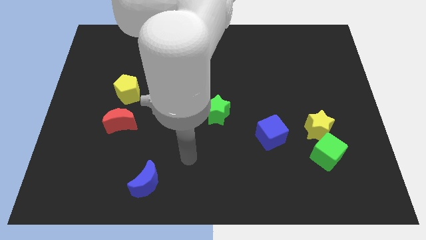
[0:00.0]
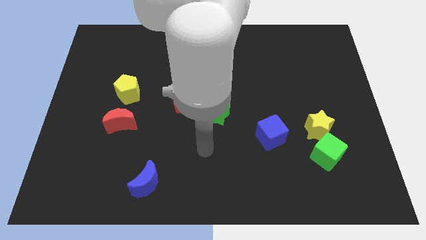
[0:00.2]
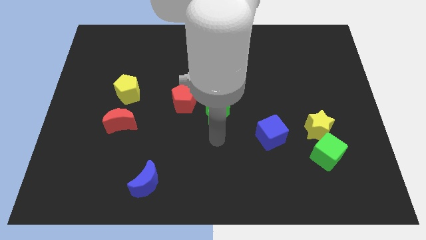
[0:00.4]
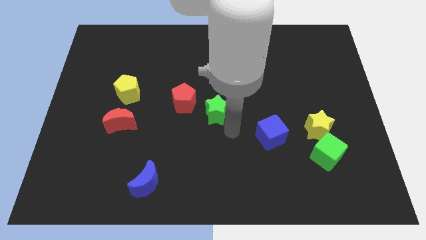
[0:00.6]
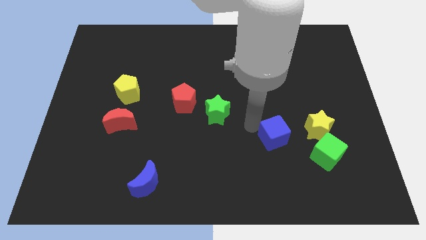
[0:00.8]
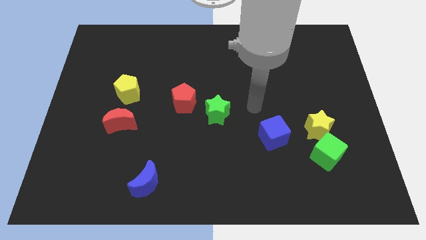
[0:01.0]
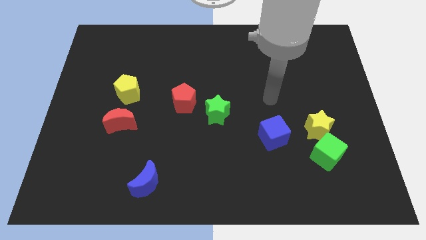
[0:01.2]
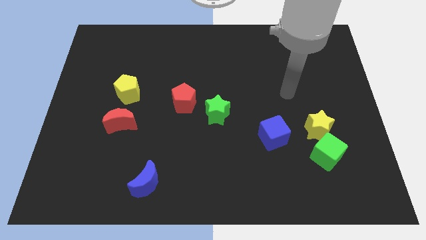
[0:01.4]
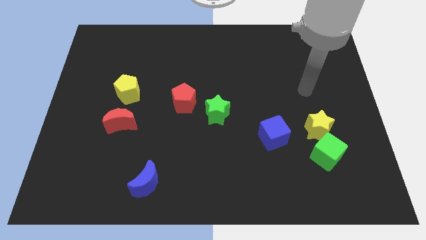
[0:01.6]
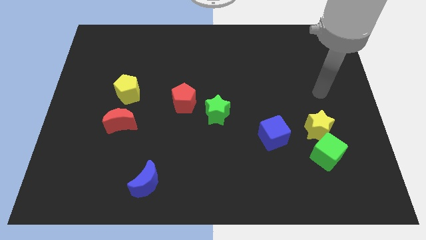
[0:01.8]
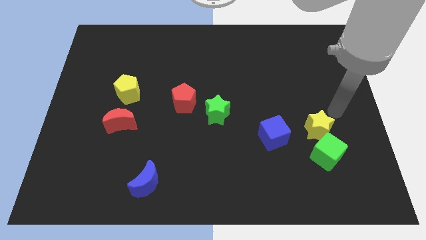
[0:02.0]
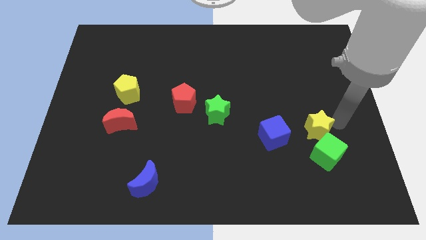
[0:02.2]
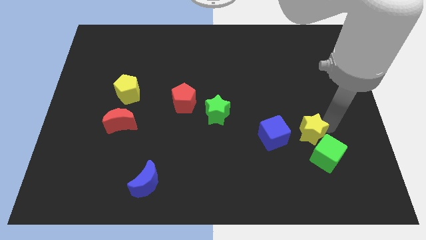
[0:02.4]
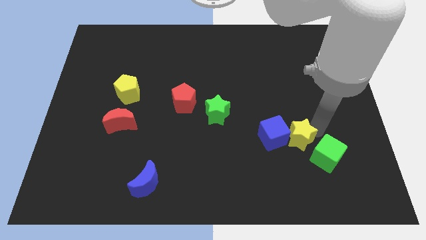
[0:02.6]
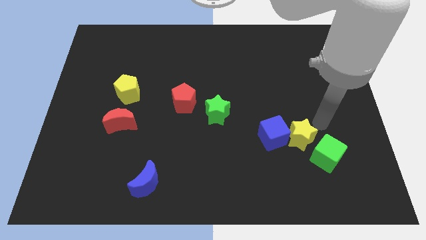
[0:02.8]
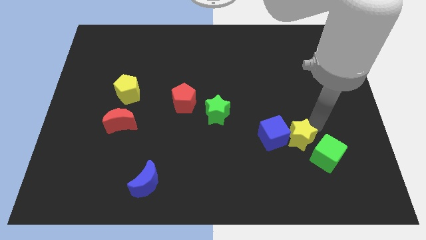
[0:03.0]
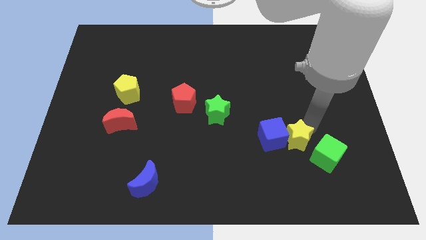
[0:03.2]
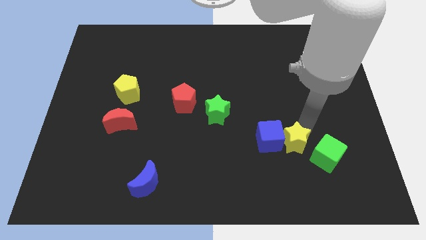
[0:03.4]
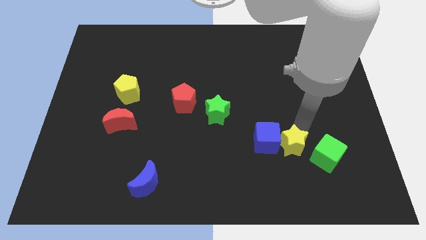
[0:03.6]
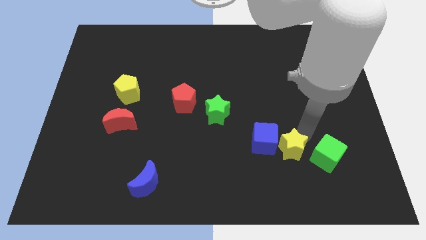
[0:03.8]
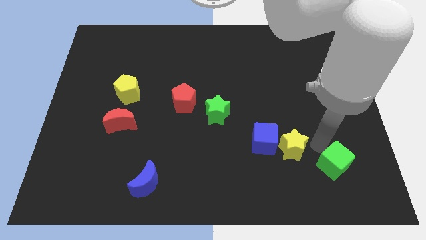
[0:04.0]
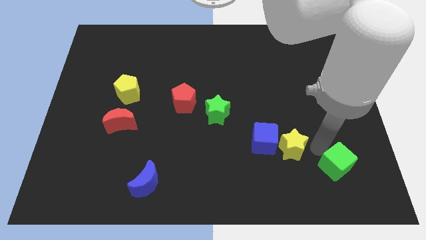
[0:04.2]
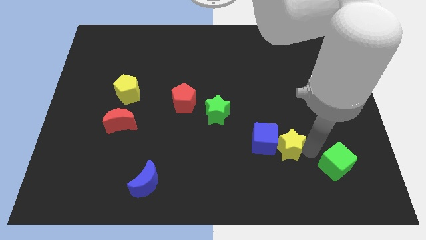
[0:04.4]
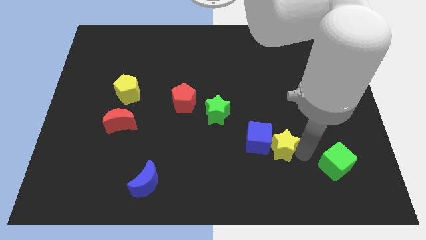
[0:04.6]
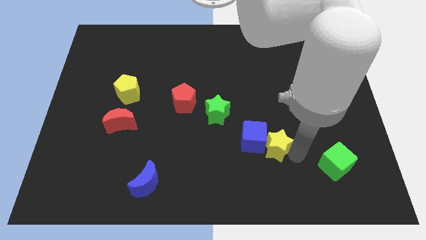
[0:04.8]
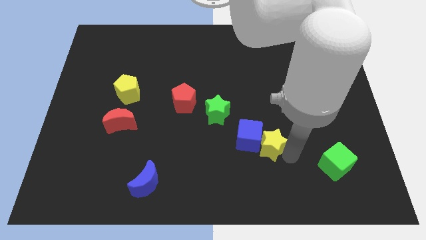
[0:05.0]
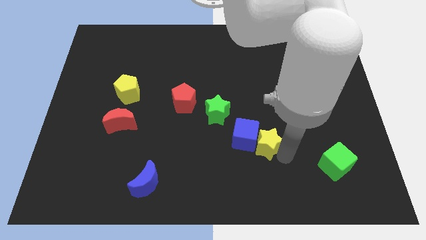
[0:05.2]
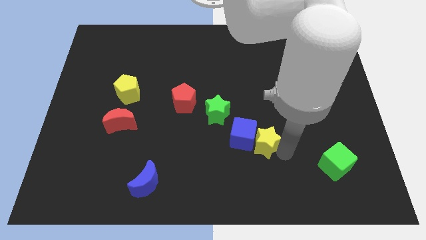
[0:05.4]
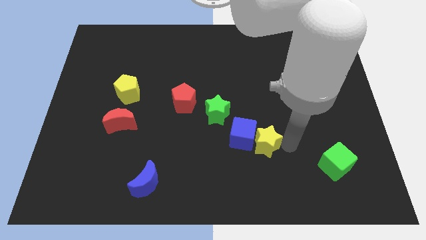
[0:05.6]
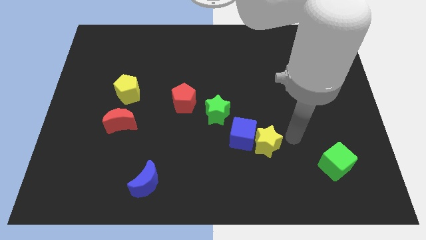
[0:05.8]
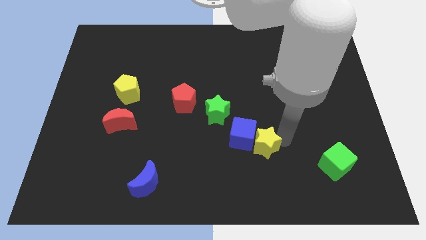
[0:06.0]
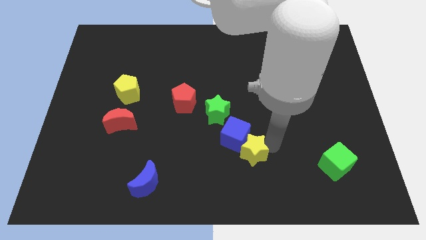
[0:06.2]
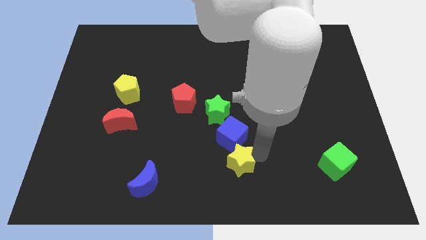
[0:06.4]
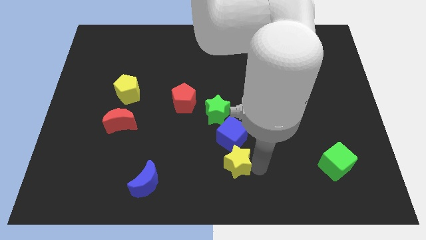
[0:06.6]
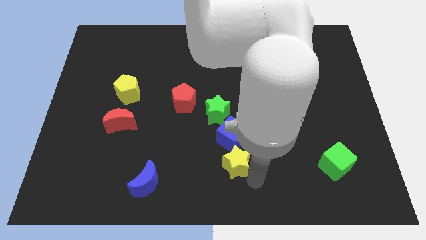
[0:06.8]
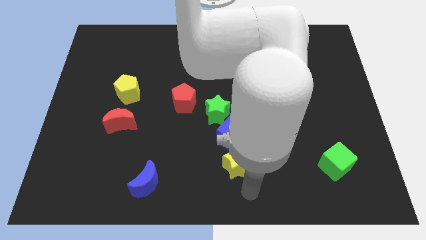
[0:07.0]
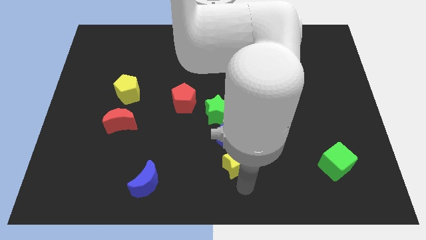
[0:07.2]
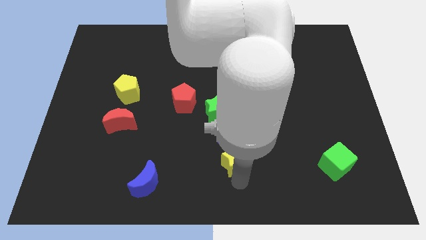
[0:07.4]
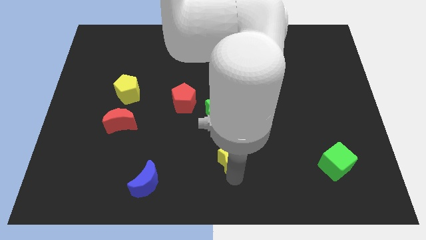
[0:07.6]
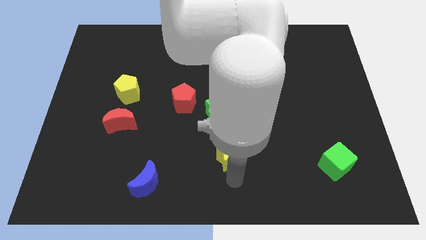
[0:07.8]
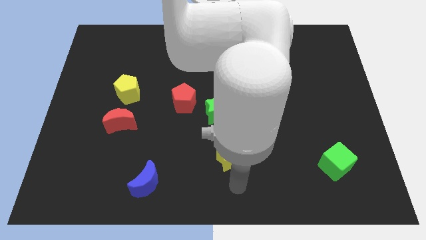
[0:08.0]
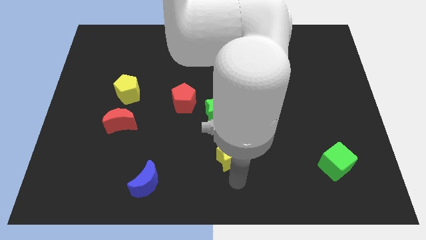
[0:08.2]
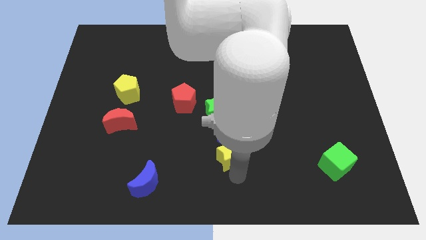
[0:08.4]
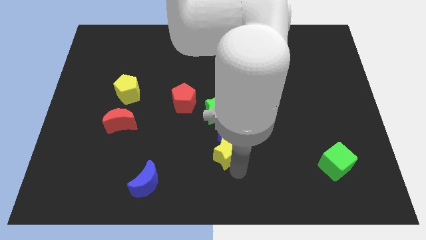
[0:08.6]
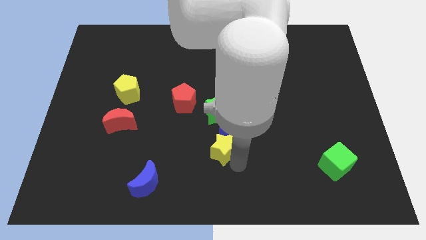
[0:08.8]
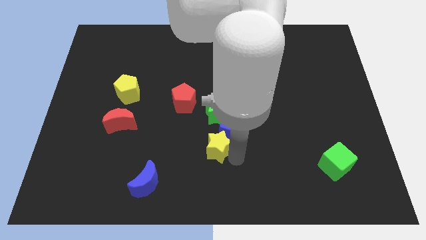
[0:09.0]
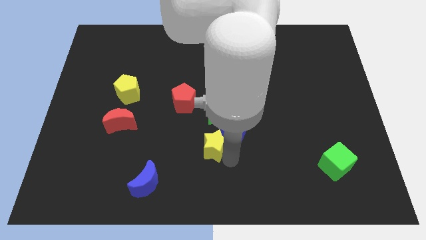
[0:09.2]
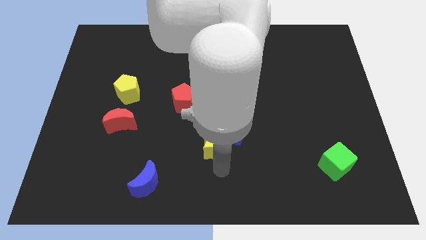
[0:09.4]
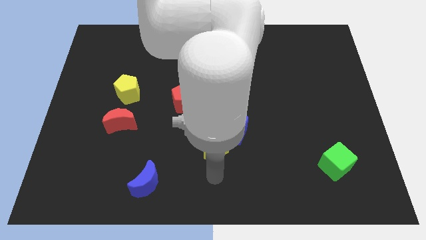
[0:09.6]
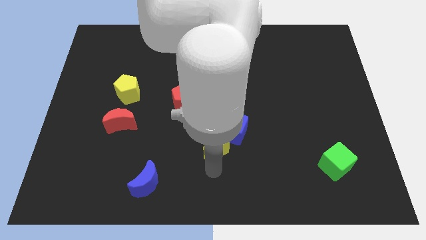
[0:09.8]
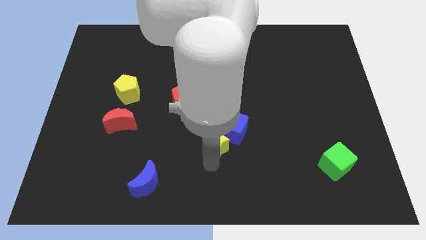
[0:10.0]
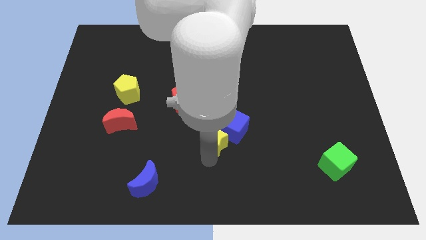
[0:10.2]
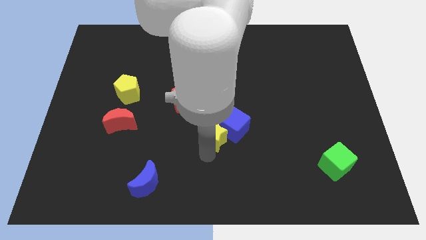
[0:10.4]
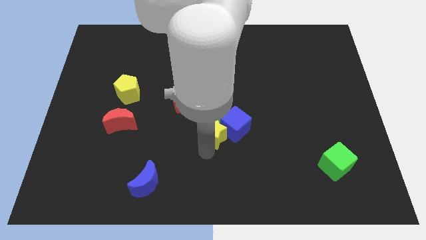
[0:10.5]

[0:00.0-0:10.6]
put the yellow star to the bottom right side of the red pentagon

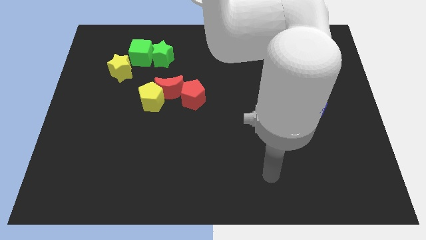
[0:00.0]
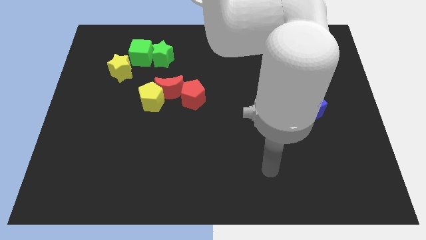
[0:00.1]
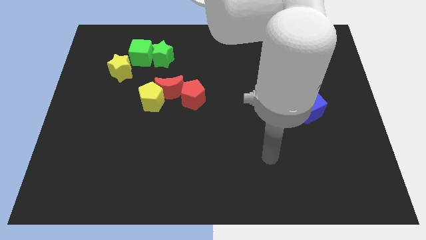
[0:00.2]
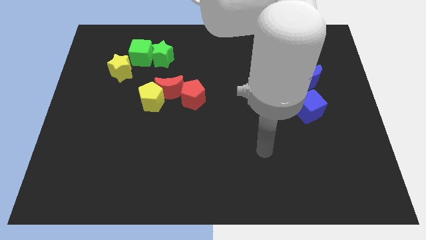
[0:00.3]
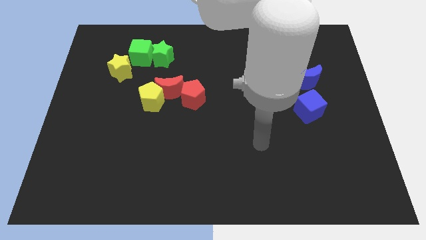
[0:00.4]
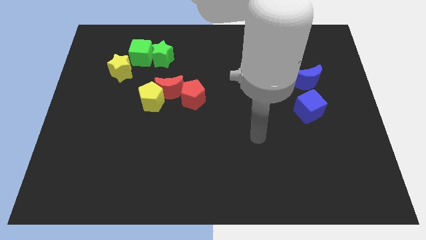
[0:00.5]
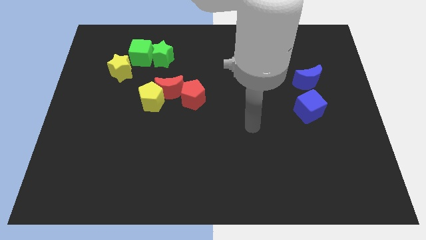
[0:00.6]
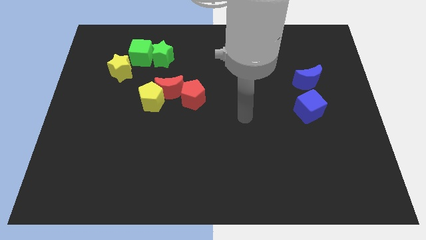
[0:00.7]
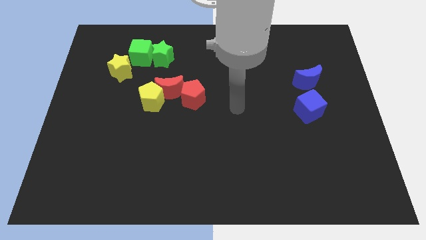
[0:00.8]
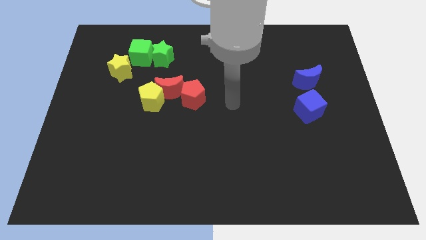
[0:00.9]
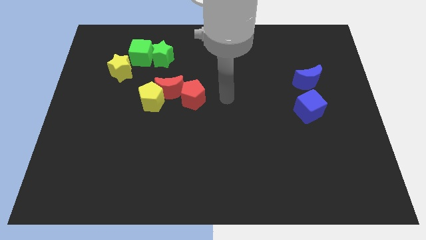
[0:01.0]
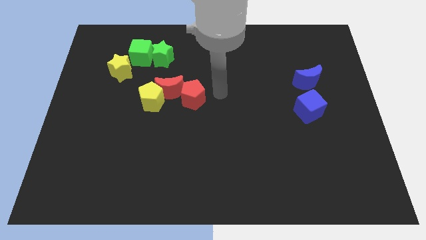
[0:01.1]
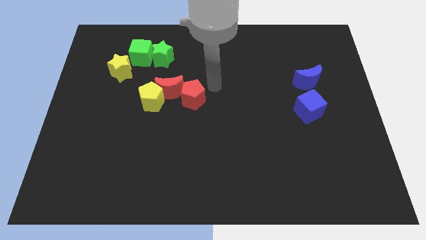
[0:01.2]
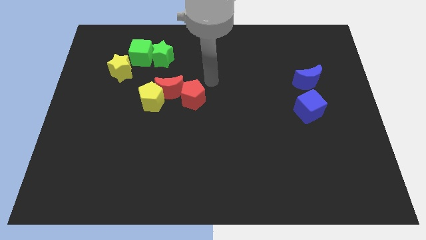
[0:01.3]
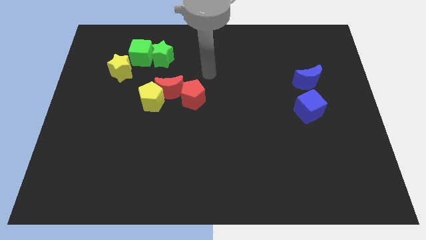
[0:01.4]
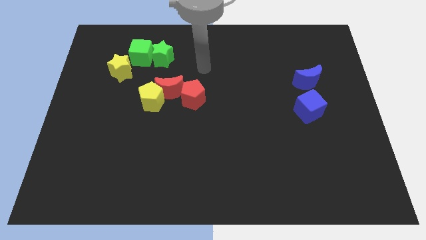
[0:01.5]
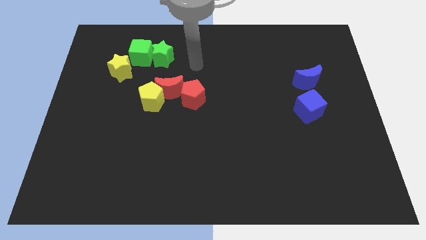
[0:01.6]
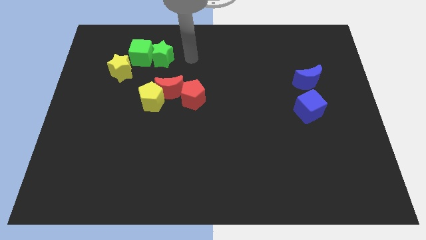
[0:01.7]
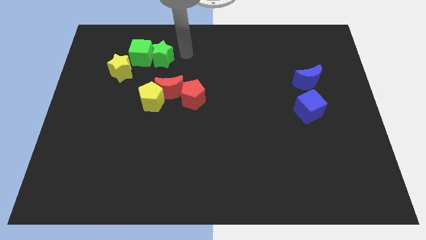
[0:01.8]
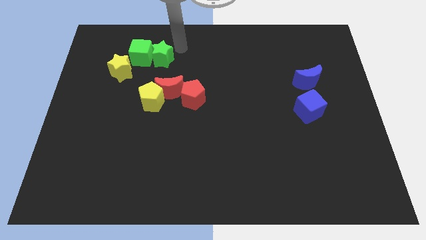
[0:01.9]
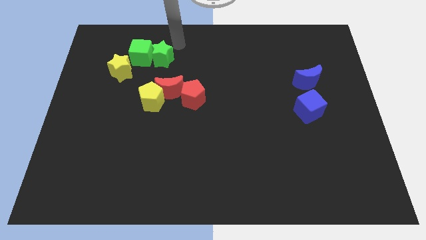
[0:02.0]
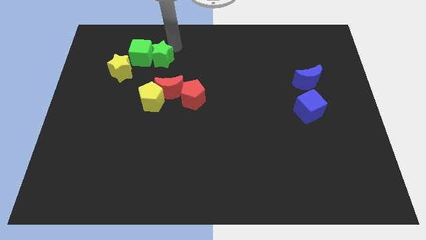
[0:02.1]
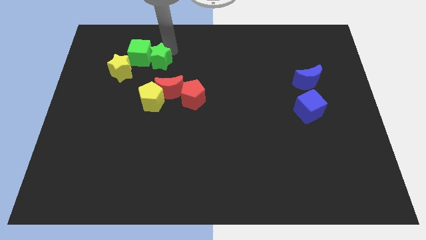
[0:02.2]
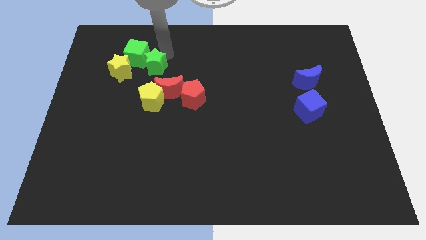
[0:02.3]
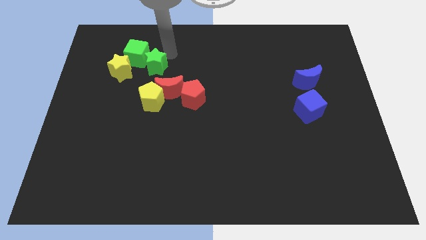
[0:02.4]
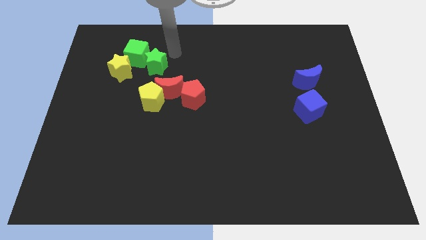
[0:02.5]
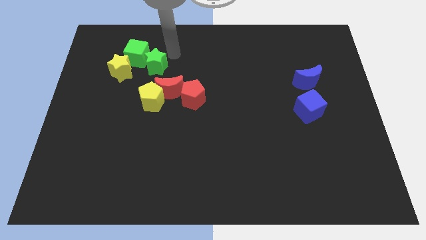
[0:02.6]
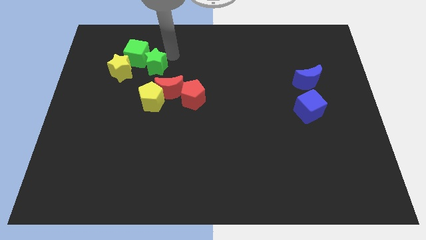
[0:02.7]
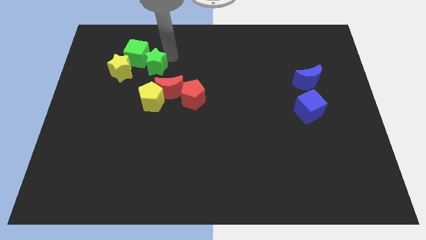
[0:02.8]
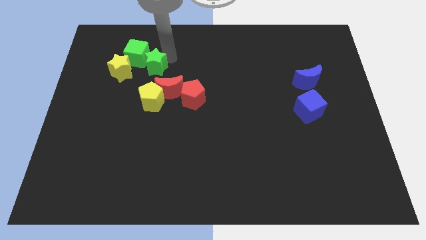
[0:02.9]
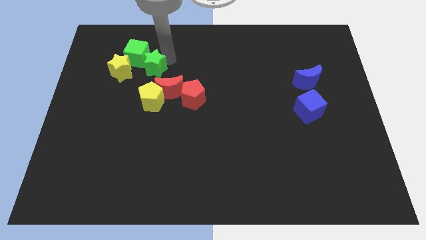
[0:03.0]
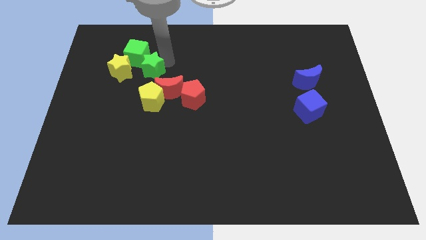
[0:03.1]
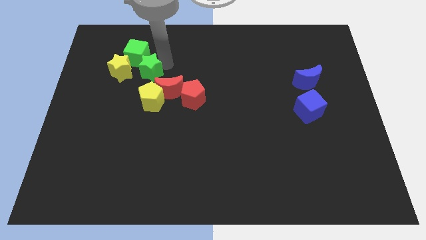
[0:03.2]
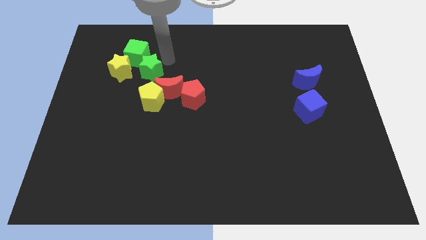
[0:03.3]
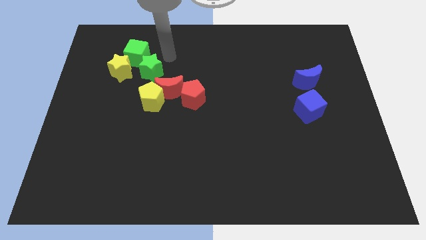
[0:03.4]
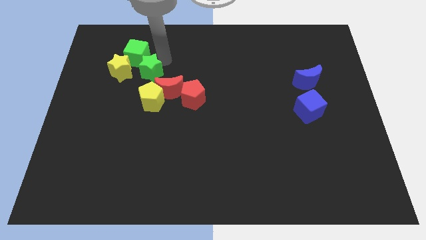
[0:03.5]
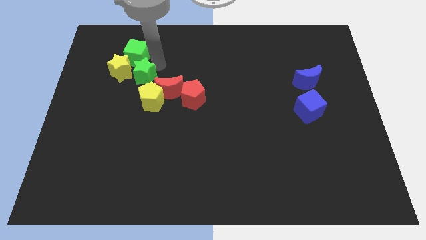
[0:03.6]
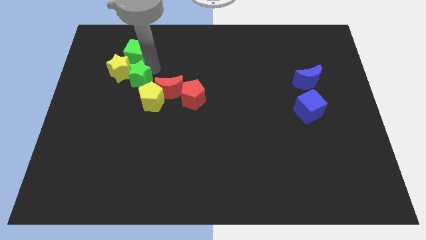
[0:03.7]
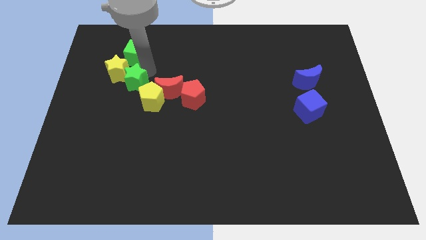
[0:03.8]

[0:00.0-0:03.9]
put the green star to the bottom side of the yellow star
